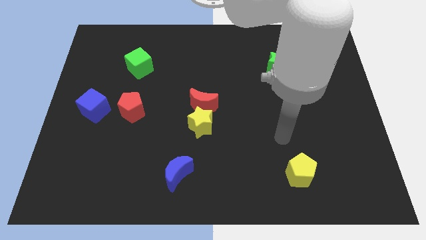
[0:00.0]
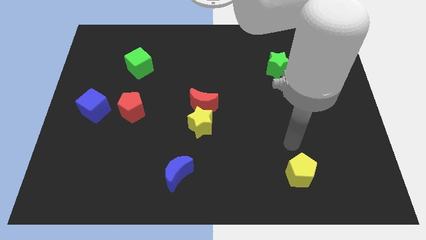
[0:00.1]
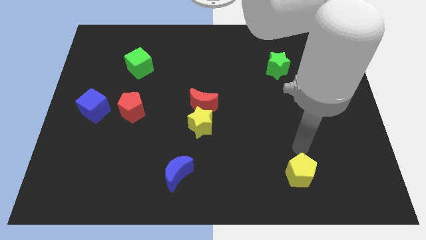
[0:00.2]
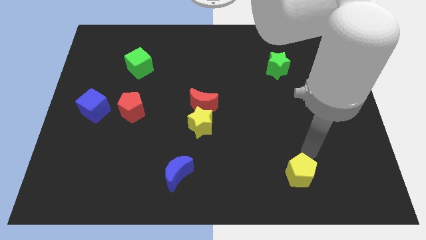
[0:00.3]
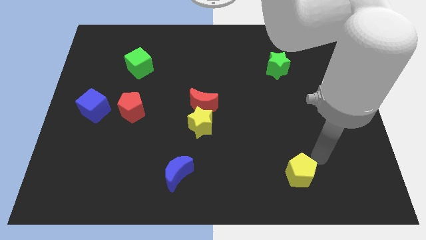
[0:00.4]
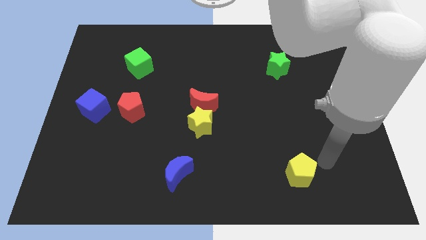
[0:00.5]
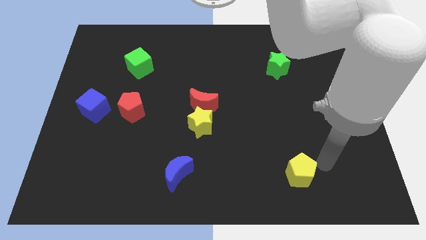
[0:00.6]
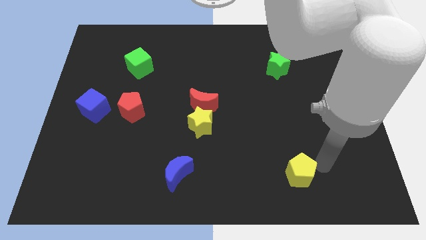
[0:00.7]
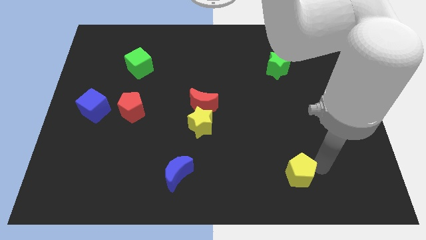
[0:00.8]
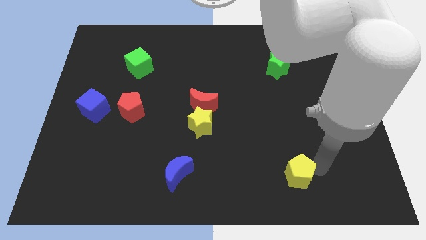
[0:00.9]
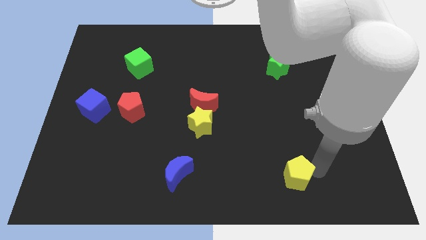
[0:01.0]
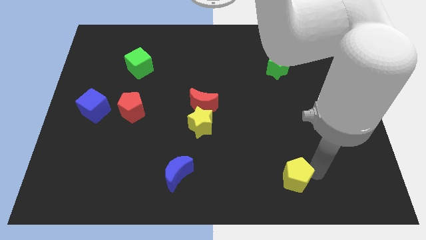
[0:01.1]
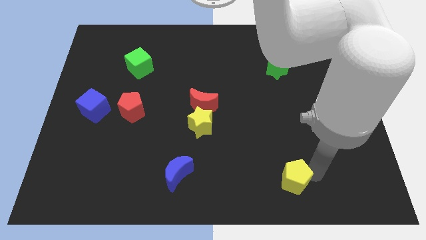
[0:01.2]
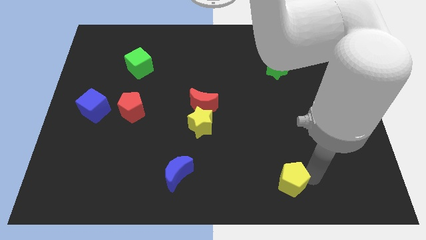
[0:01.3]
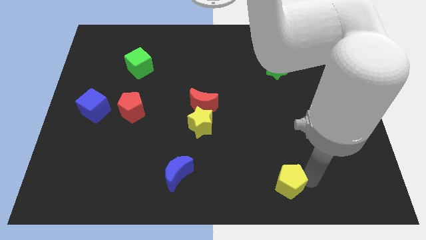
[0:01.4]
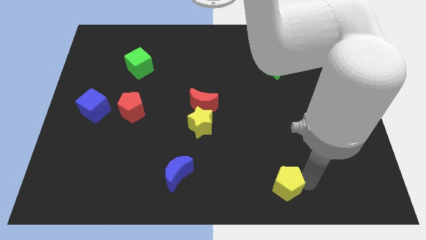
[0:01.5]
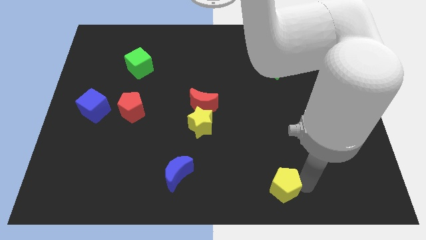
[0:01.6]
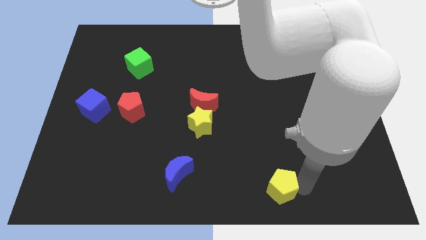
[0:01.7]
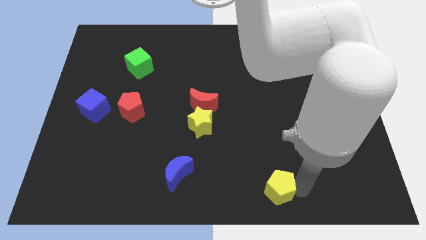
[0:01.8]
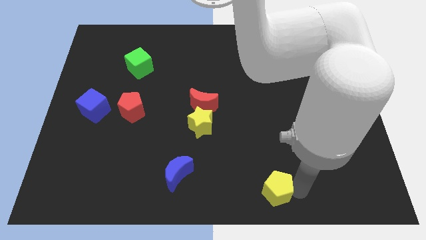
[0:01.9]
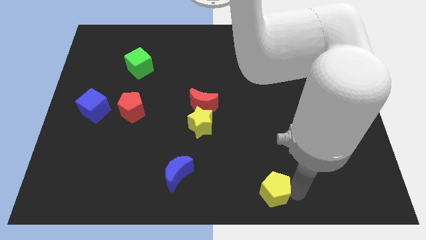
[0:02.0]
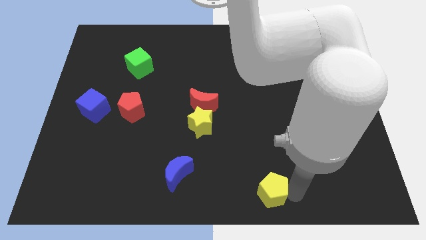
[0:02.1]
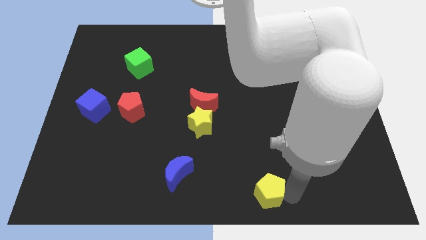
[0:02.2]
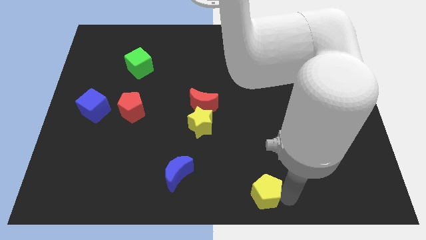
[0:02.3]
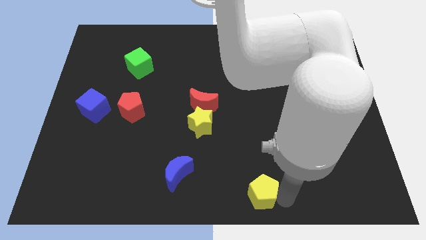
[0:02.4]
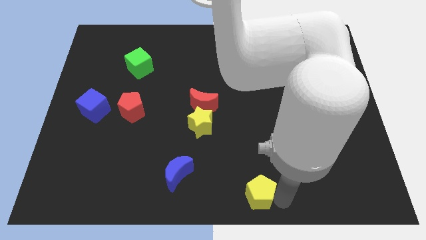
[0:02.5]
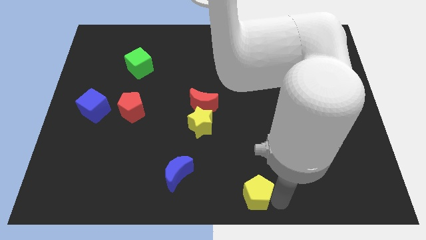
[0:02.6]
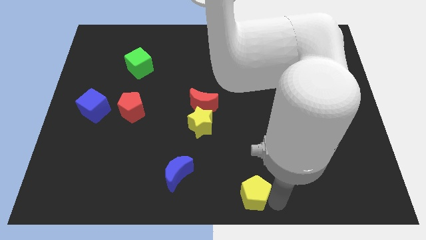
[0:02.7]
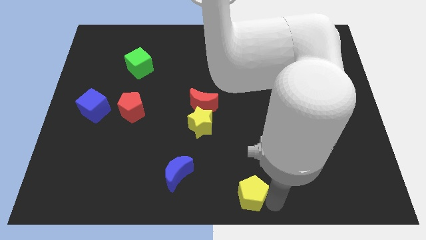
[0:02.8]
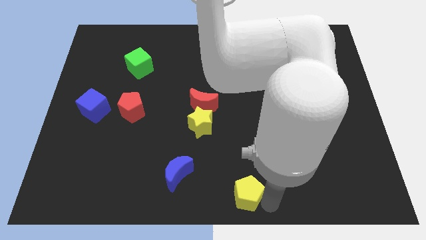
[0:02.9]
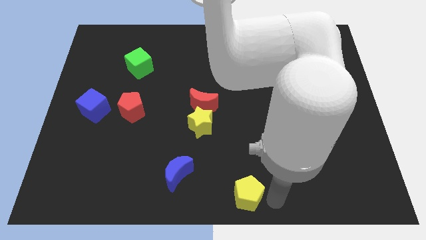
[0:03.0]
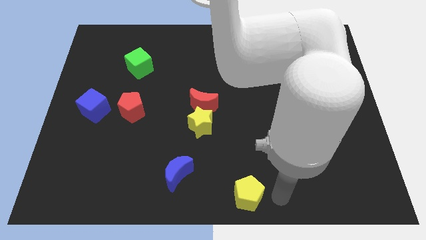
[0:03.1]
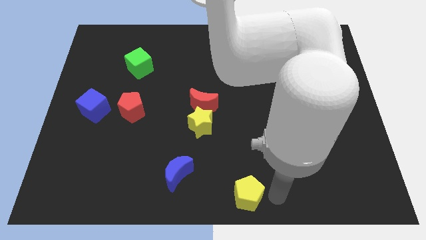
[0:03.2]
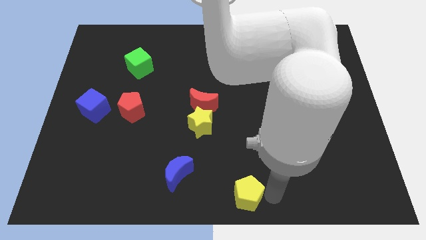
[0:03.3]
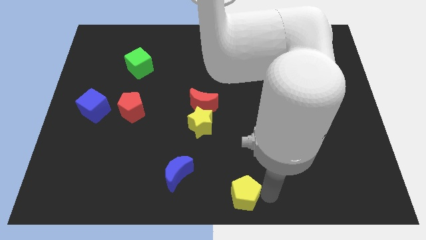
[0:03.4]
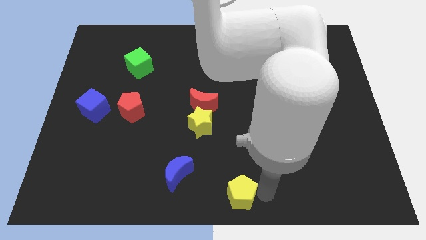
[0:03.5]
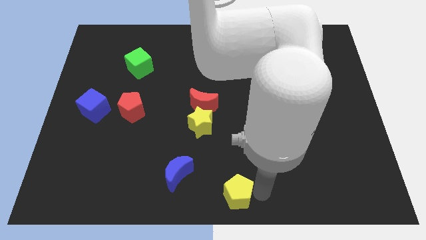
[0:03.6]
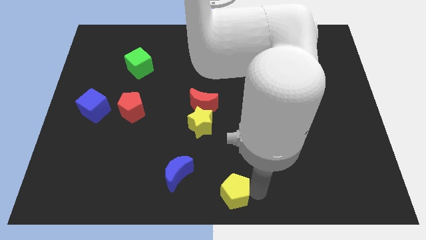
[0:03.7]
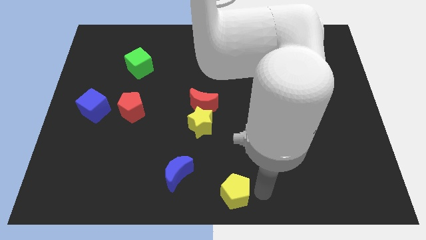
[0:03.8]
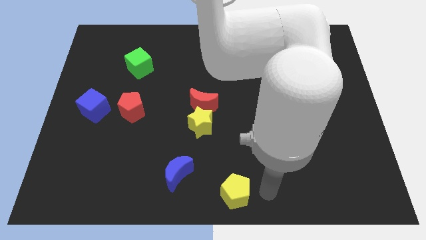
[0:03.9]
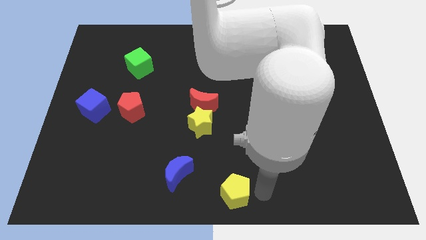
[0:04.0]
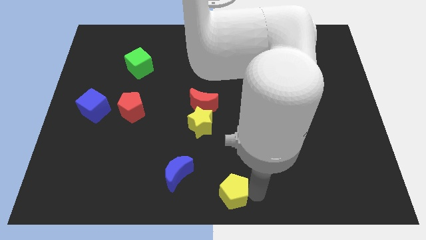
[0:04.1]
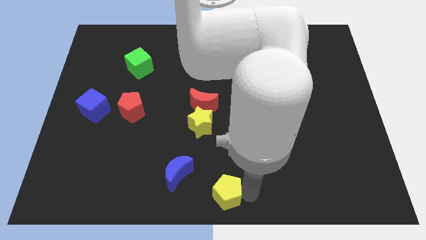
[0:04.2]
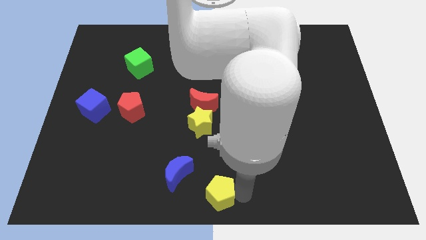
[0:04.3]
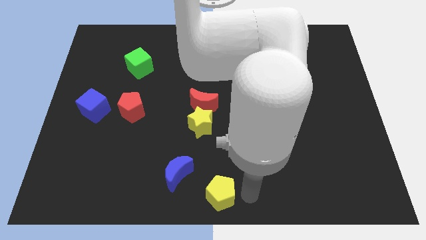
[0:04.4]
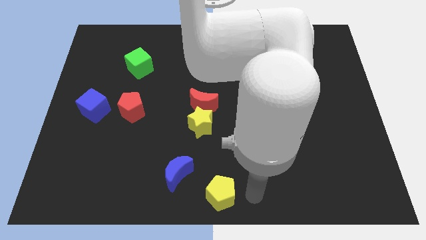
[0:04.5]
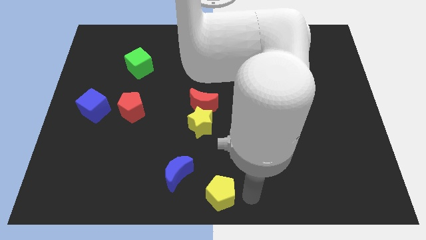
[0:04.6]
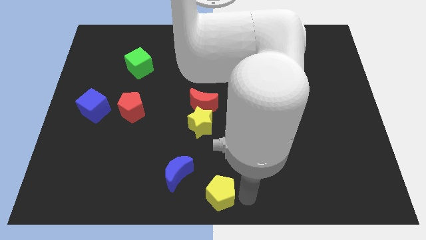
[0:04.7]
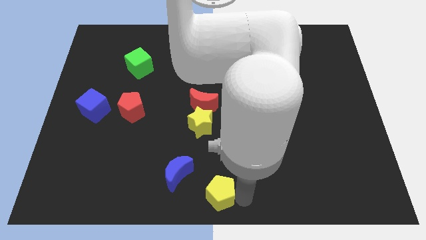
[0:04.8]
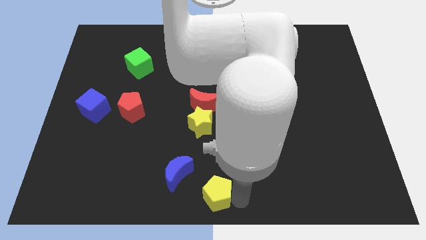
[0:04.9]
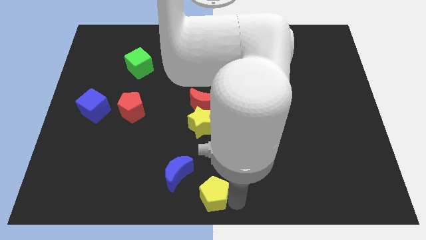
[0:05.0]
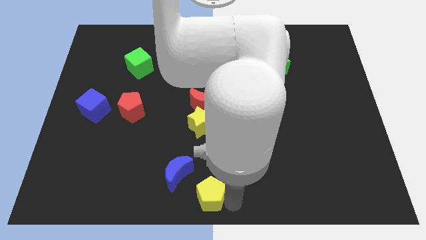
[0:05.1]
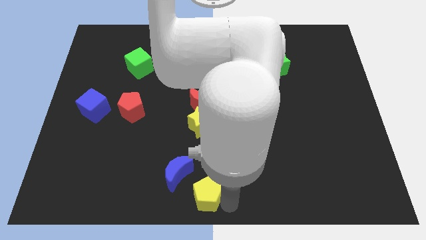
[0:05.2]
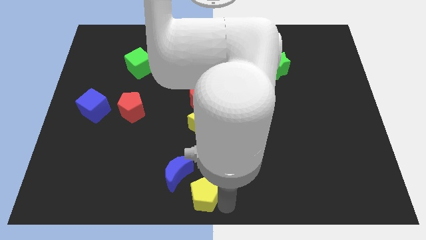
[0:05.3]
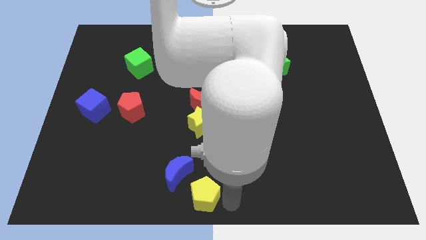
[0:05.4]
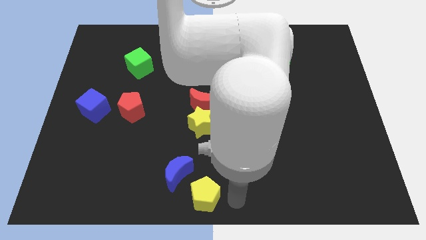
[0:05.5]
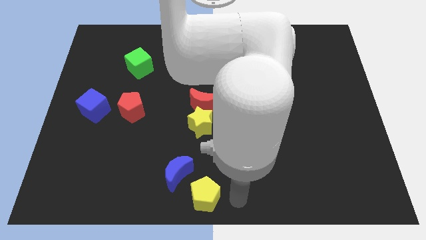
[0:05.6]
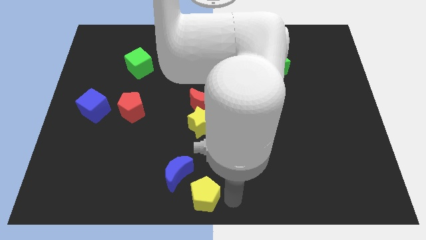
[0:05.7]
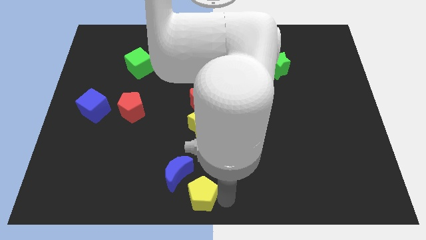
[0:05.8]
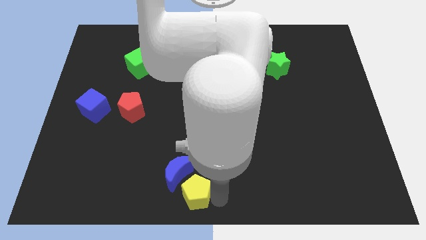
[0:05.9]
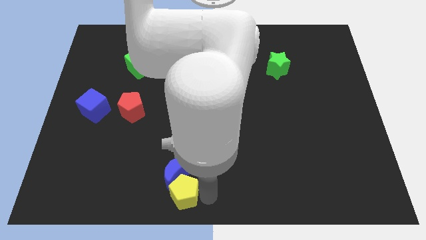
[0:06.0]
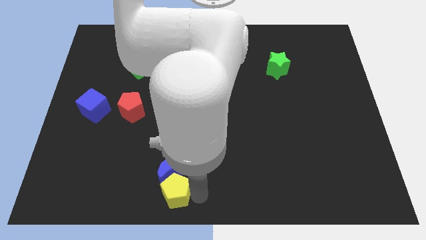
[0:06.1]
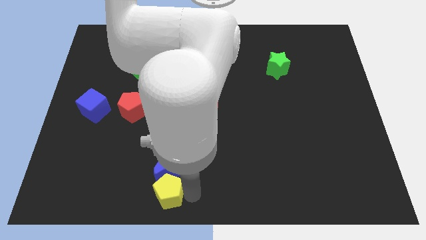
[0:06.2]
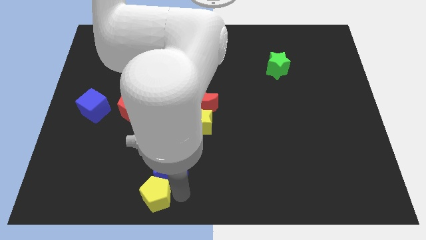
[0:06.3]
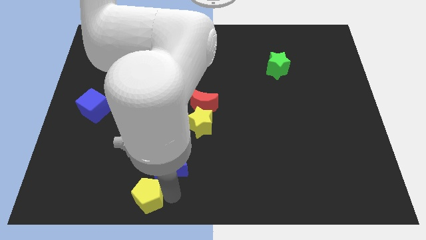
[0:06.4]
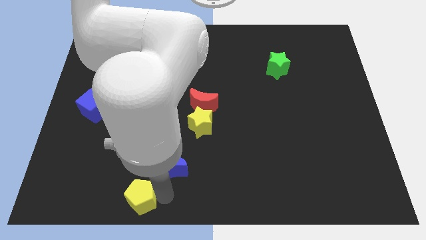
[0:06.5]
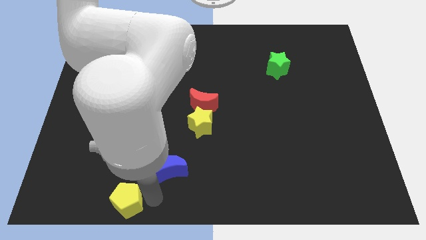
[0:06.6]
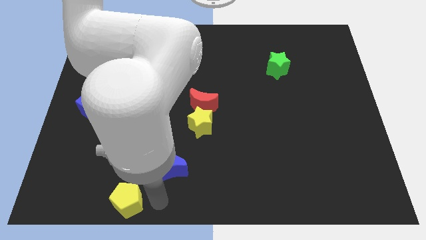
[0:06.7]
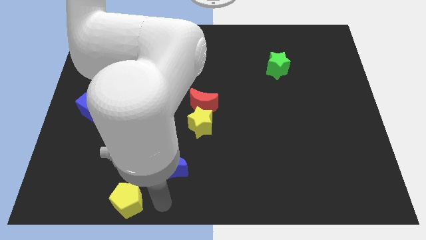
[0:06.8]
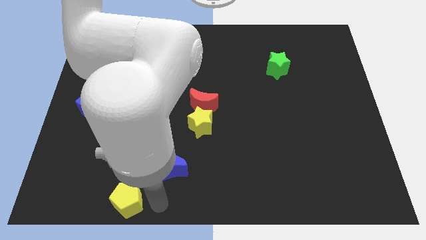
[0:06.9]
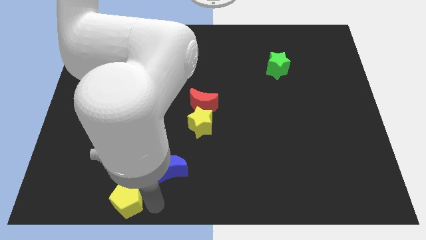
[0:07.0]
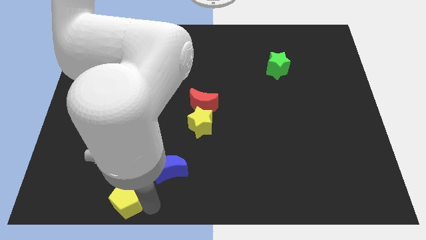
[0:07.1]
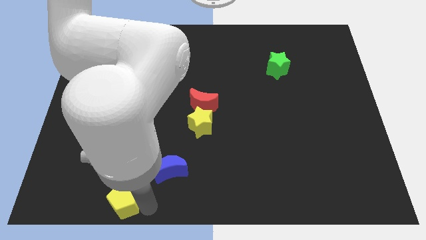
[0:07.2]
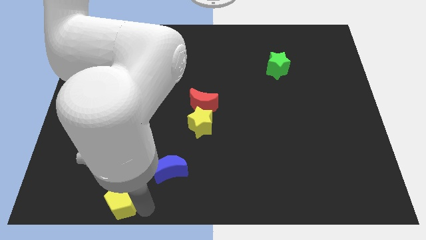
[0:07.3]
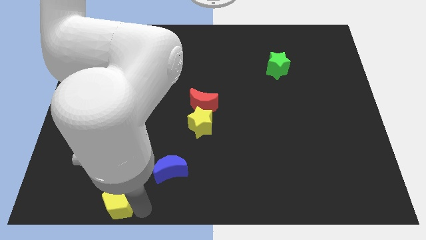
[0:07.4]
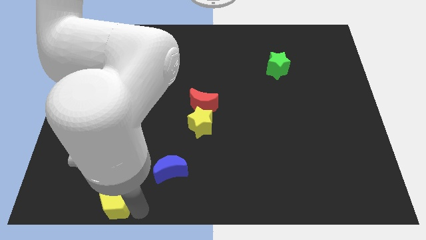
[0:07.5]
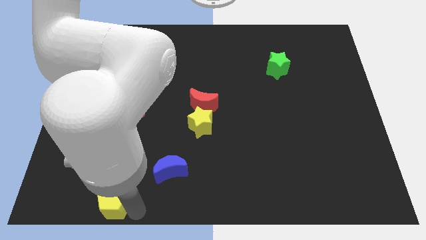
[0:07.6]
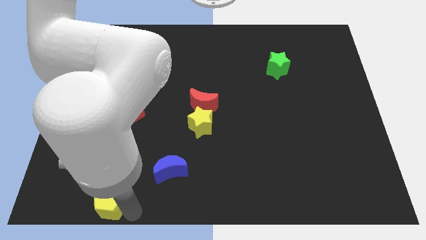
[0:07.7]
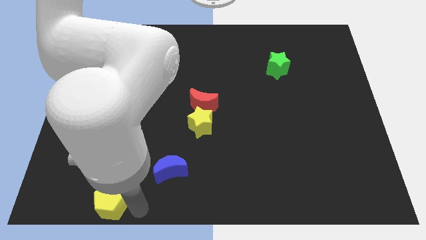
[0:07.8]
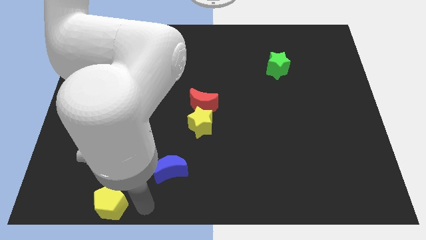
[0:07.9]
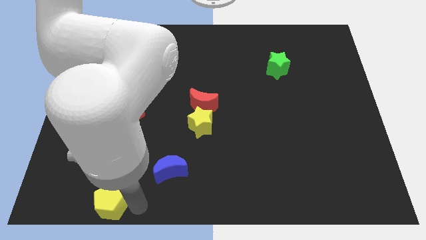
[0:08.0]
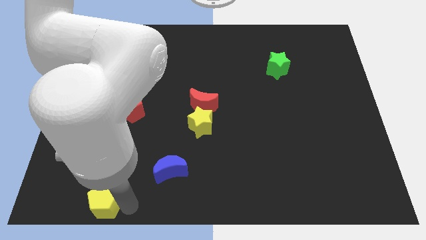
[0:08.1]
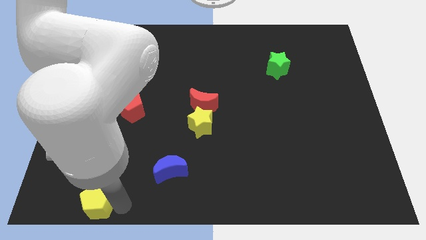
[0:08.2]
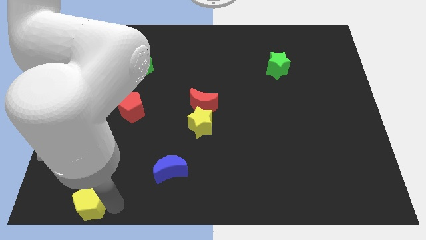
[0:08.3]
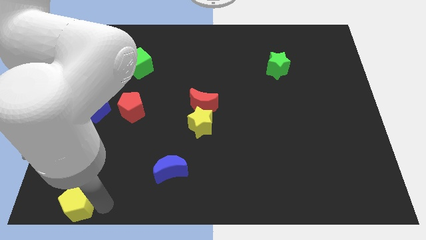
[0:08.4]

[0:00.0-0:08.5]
put the yellow pentagon to the bottom left of the board
